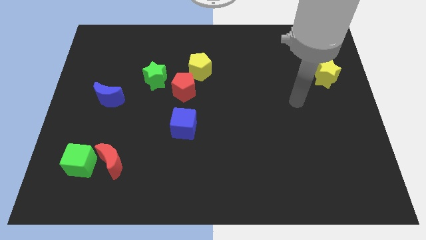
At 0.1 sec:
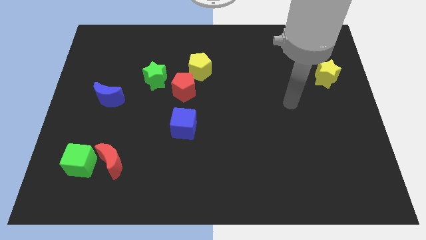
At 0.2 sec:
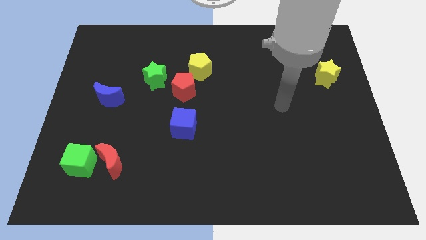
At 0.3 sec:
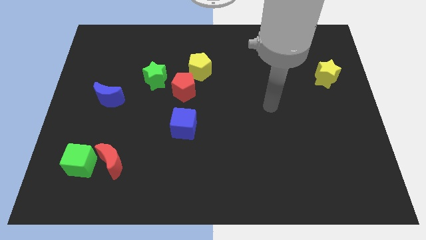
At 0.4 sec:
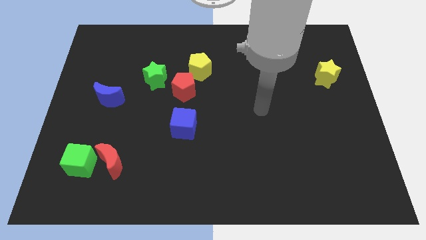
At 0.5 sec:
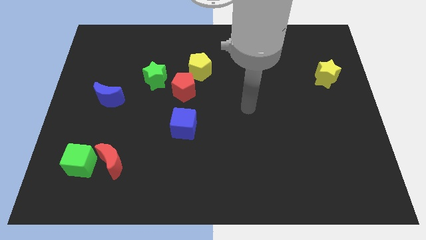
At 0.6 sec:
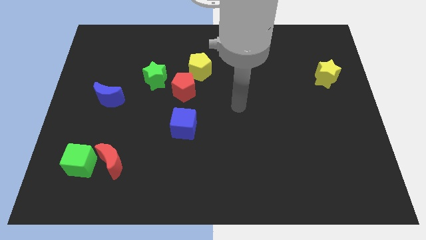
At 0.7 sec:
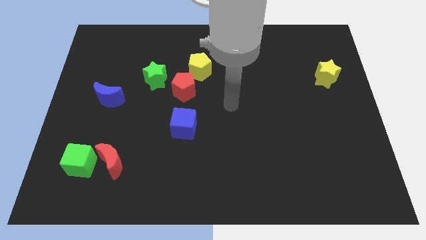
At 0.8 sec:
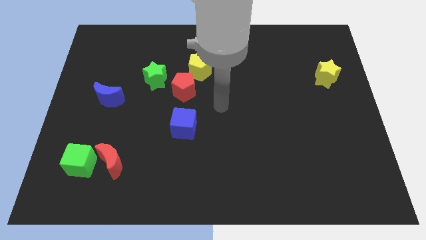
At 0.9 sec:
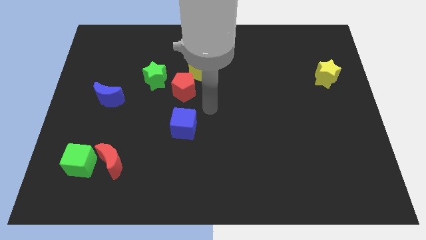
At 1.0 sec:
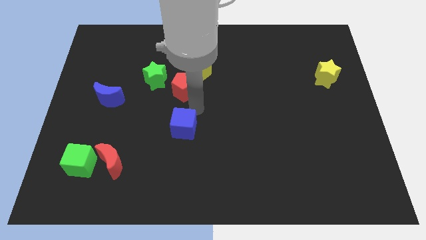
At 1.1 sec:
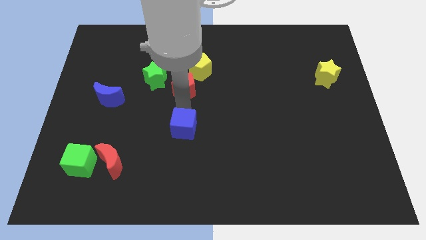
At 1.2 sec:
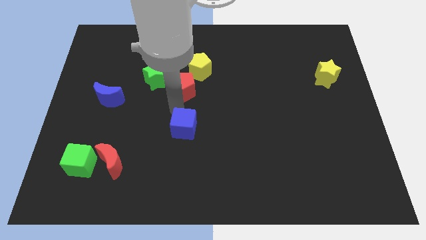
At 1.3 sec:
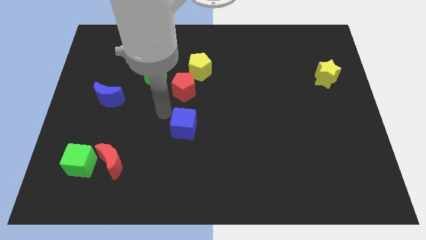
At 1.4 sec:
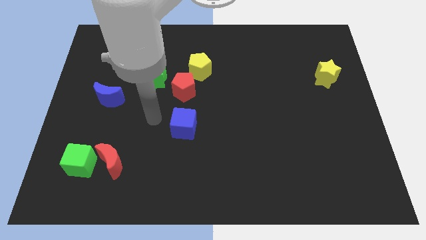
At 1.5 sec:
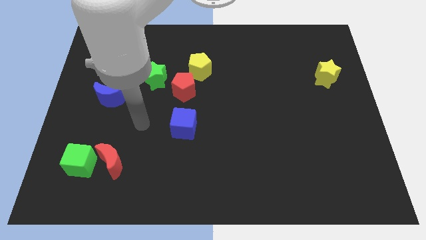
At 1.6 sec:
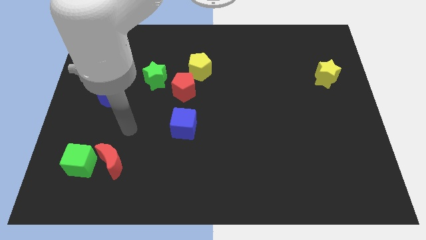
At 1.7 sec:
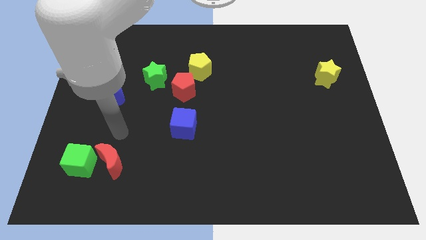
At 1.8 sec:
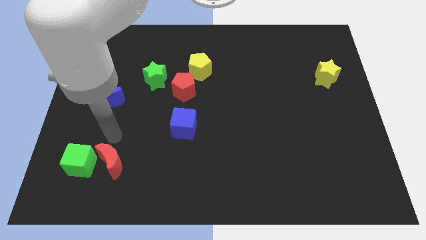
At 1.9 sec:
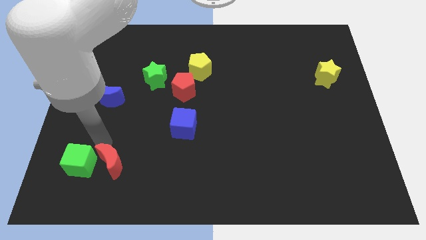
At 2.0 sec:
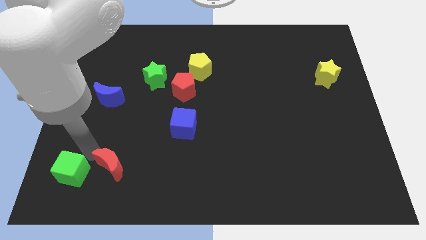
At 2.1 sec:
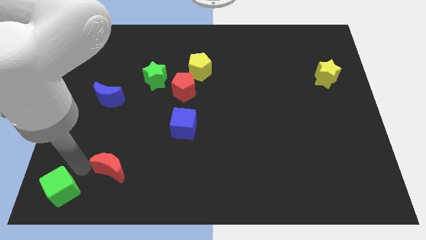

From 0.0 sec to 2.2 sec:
separate the red moon from the green cube

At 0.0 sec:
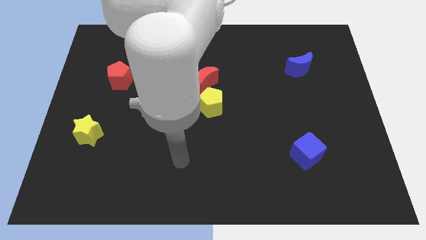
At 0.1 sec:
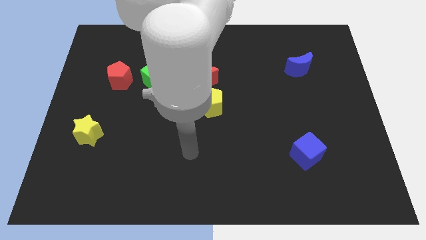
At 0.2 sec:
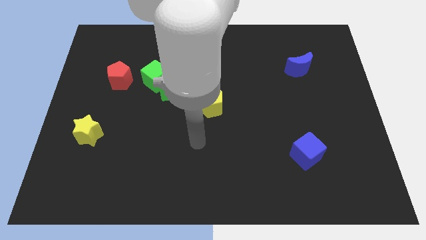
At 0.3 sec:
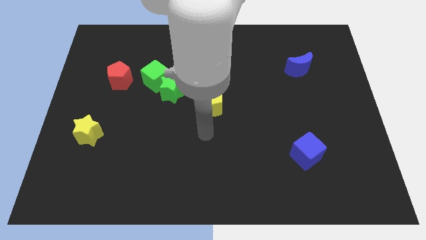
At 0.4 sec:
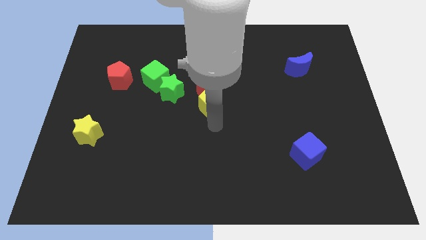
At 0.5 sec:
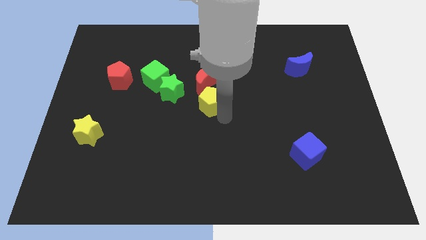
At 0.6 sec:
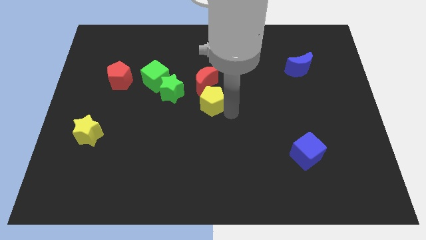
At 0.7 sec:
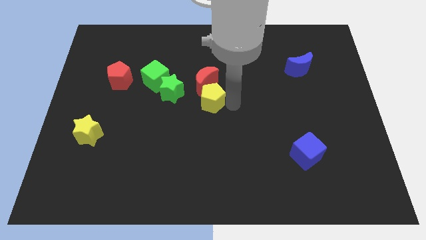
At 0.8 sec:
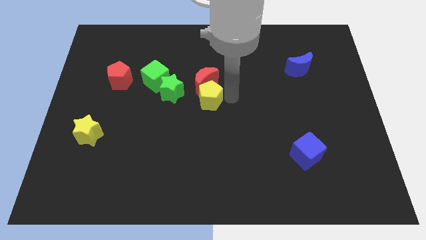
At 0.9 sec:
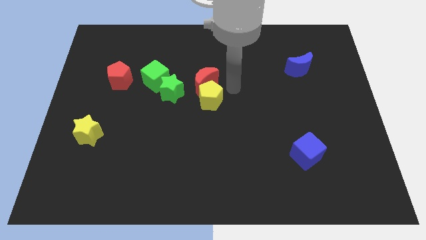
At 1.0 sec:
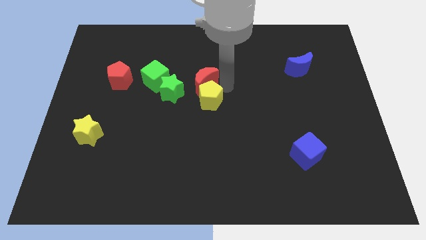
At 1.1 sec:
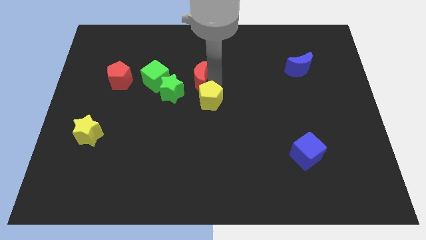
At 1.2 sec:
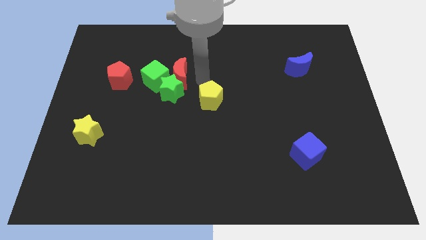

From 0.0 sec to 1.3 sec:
separate the yellow pentagon from the red moon

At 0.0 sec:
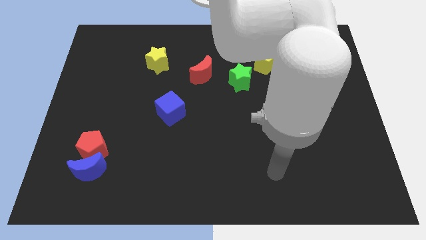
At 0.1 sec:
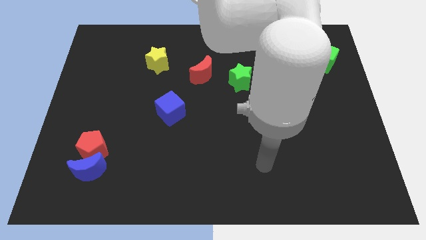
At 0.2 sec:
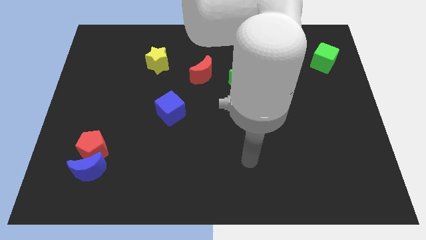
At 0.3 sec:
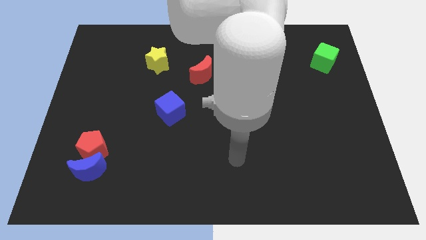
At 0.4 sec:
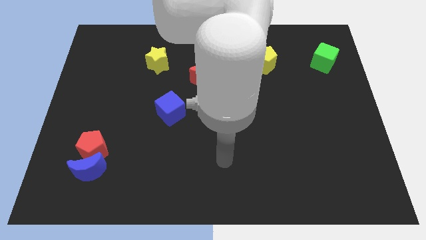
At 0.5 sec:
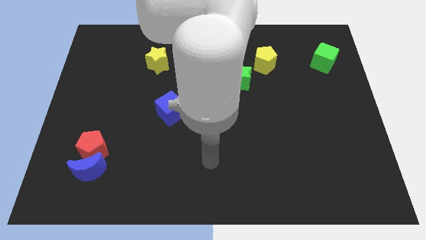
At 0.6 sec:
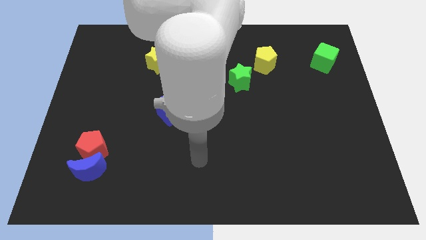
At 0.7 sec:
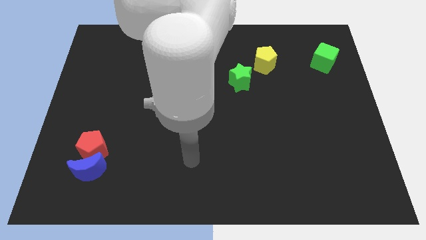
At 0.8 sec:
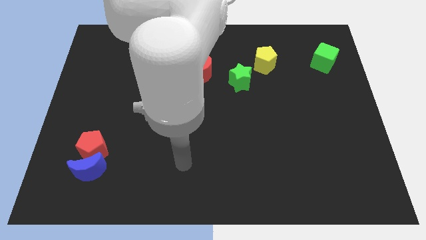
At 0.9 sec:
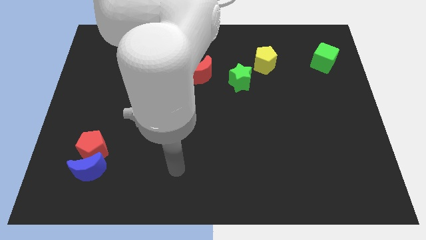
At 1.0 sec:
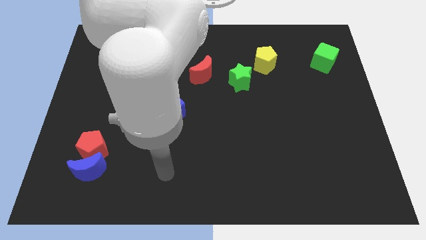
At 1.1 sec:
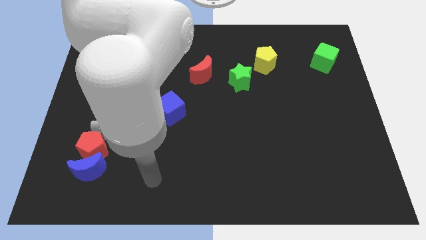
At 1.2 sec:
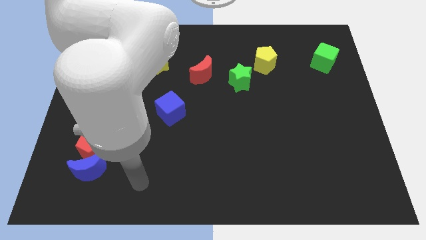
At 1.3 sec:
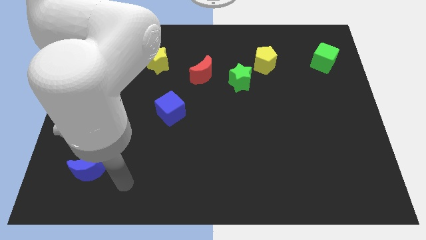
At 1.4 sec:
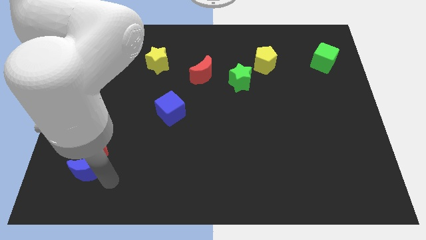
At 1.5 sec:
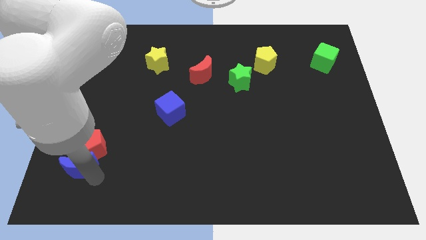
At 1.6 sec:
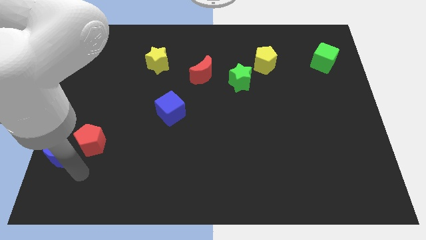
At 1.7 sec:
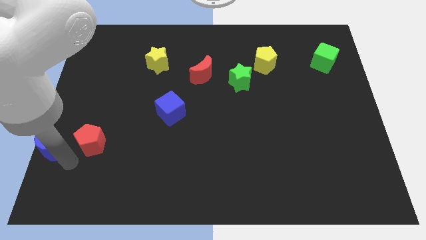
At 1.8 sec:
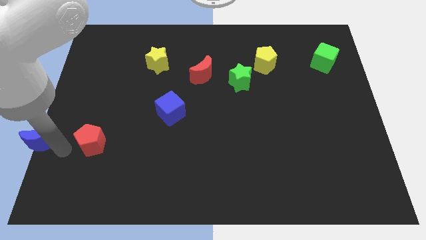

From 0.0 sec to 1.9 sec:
pull the red pentagon apart from the blue moon

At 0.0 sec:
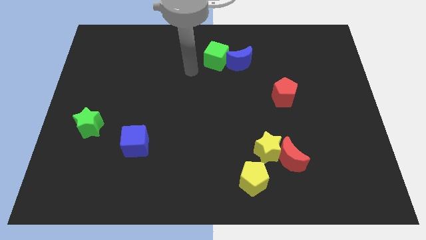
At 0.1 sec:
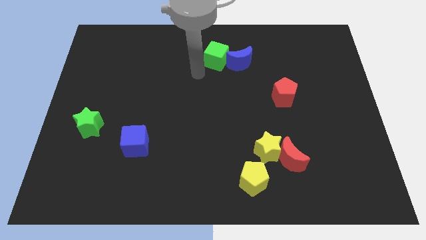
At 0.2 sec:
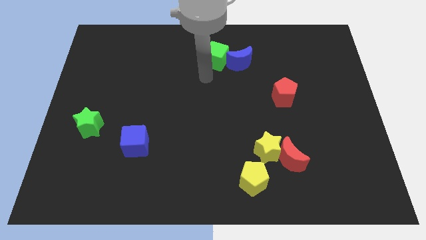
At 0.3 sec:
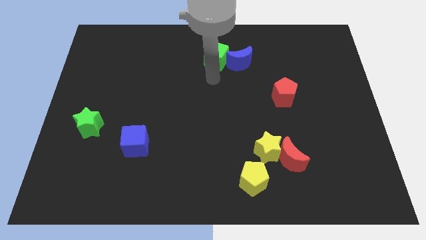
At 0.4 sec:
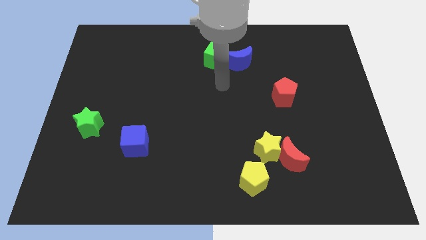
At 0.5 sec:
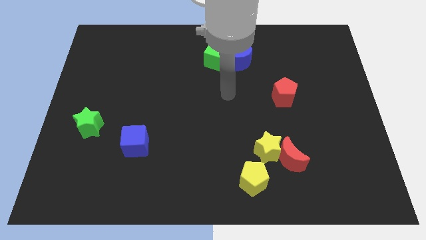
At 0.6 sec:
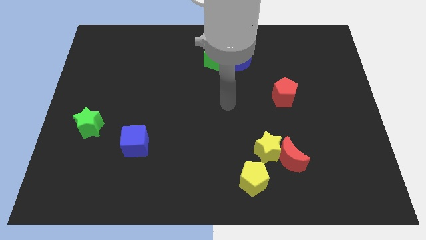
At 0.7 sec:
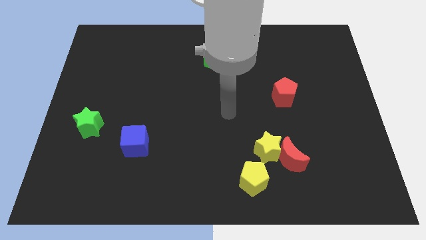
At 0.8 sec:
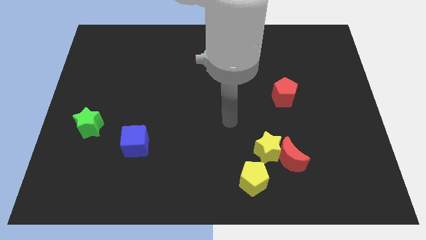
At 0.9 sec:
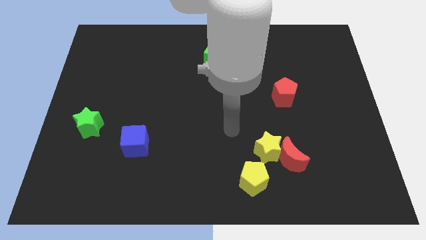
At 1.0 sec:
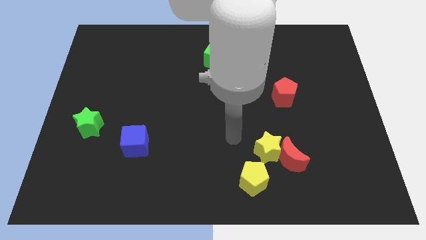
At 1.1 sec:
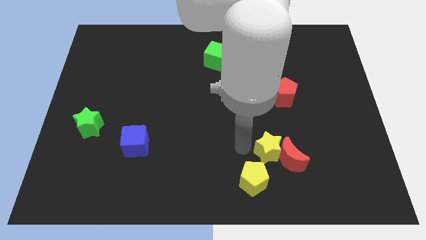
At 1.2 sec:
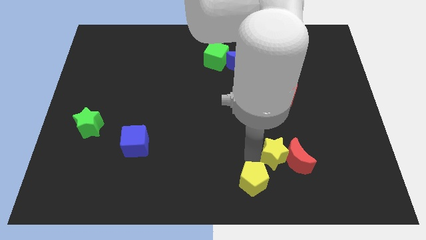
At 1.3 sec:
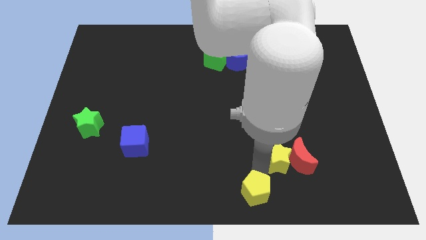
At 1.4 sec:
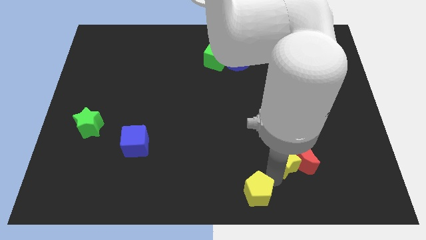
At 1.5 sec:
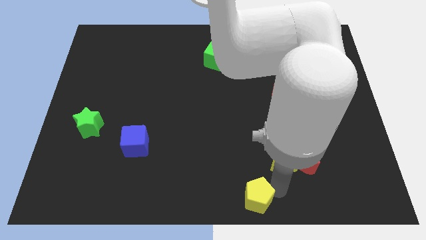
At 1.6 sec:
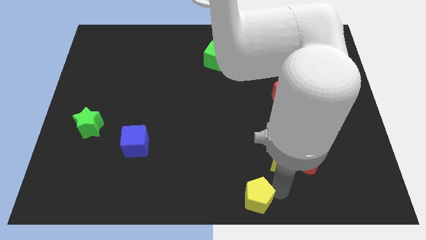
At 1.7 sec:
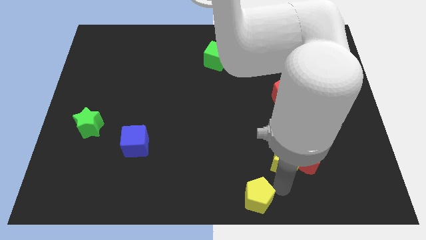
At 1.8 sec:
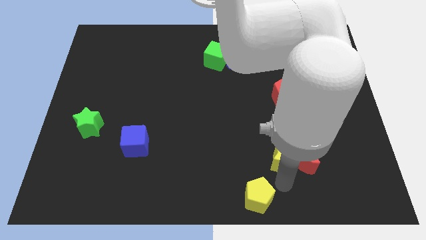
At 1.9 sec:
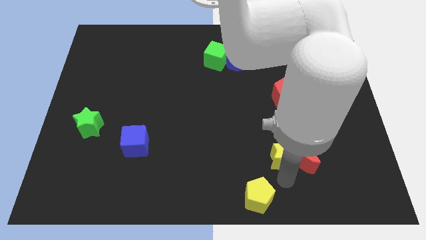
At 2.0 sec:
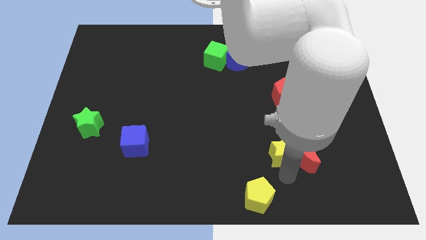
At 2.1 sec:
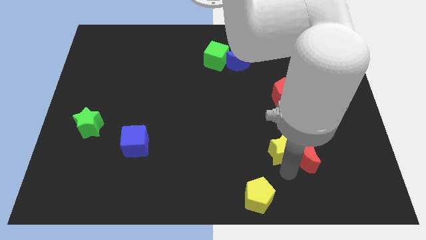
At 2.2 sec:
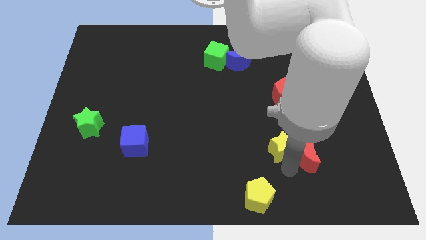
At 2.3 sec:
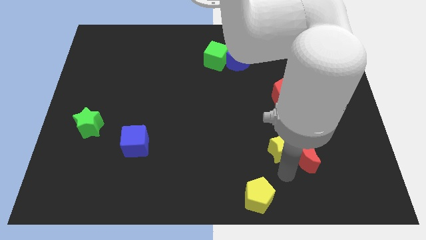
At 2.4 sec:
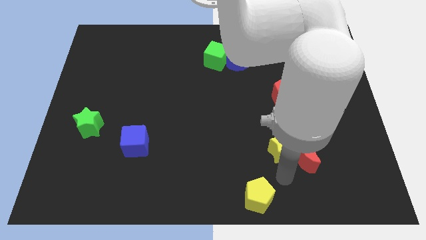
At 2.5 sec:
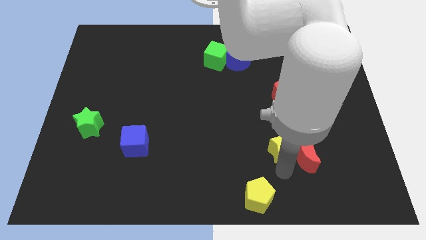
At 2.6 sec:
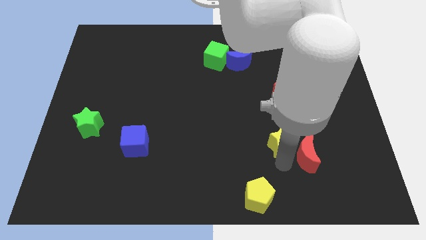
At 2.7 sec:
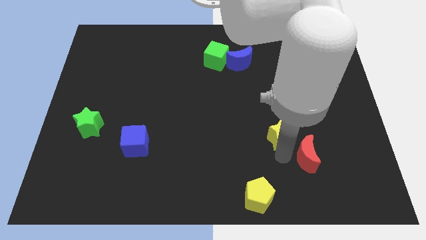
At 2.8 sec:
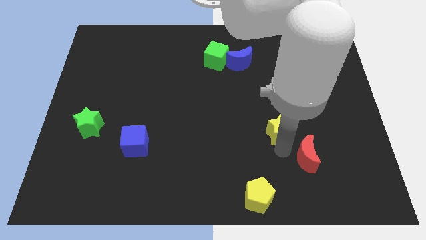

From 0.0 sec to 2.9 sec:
pull the yellow star apart from the red moon and yellow pentagon

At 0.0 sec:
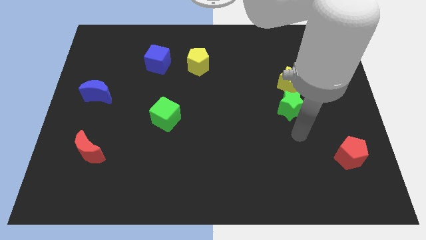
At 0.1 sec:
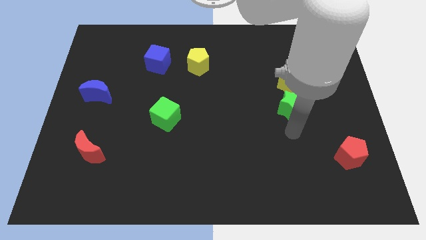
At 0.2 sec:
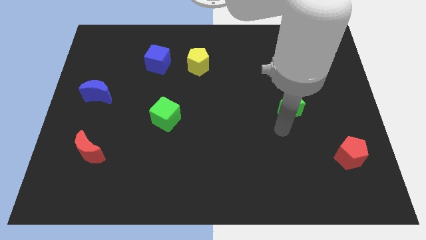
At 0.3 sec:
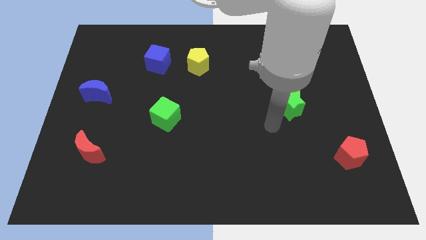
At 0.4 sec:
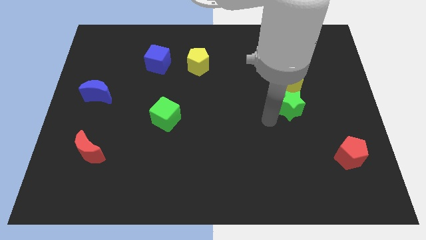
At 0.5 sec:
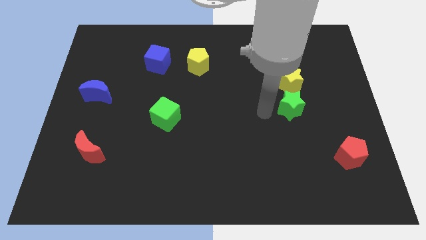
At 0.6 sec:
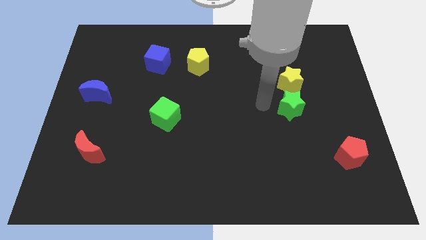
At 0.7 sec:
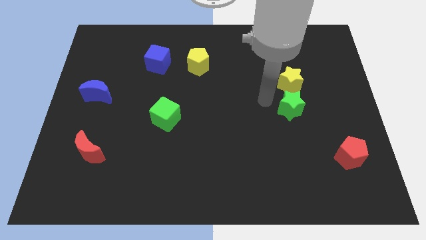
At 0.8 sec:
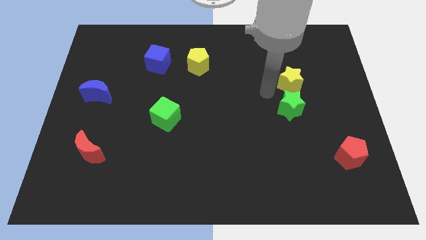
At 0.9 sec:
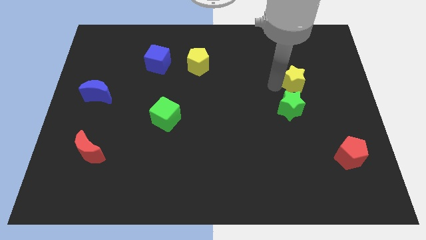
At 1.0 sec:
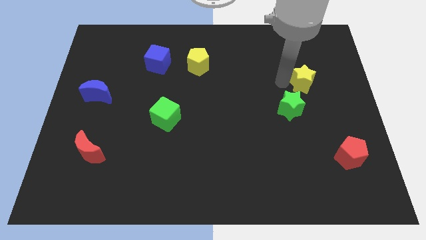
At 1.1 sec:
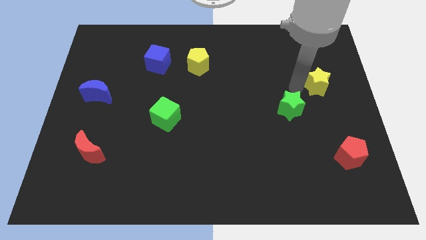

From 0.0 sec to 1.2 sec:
pull the green star apart from the yellow star
